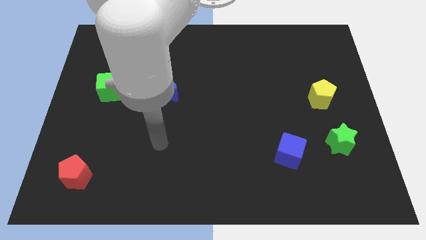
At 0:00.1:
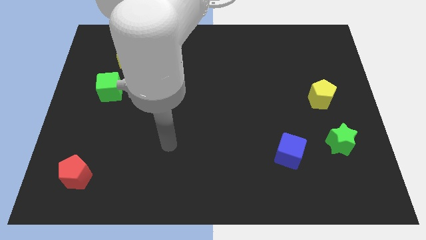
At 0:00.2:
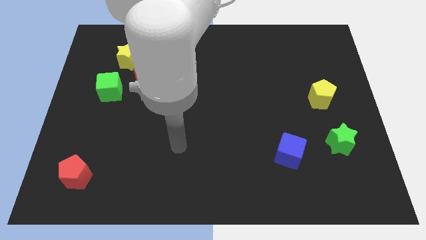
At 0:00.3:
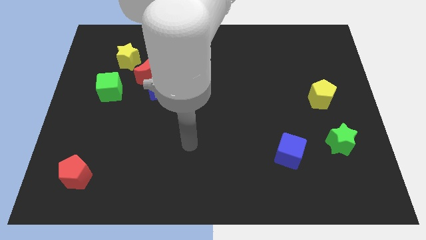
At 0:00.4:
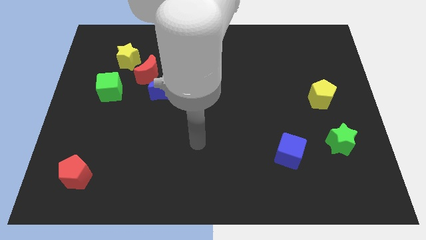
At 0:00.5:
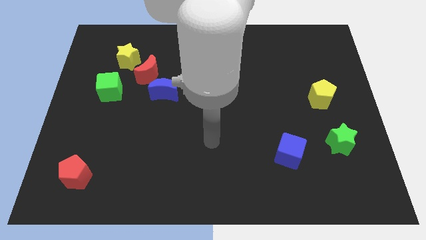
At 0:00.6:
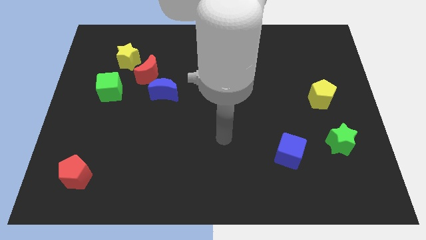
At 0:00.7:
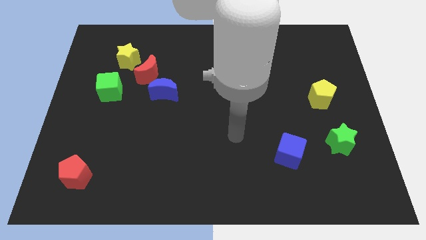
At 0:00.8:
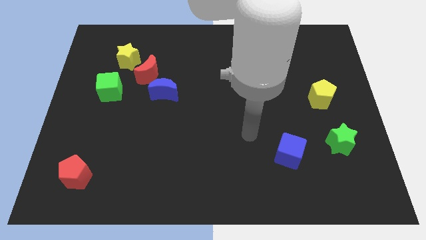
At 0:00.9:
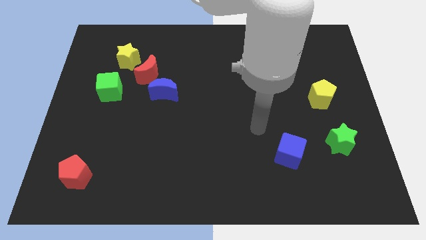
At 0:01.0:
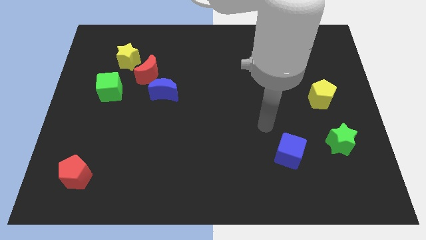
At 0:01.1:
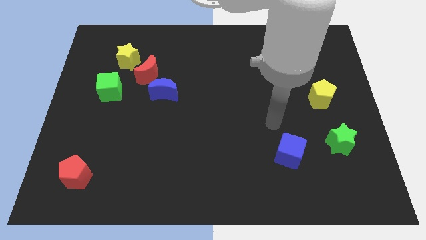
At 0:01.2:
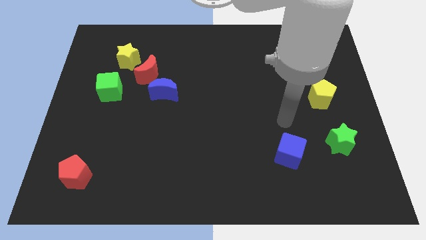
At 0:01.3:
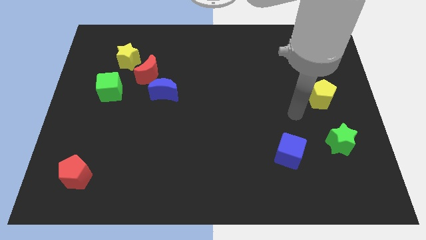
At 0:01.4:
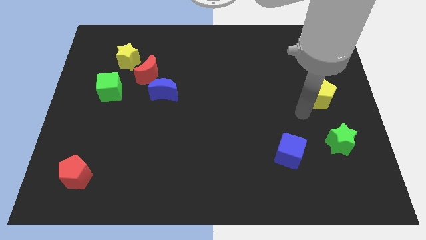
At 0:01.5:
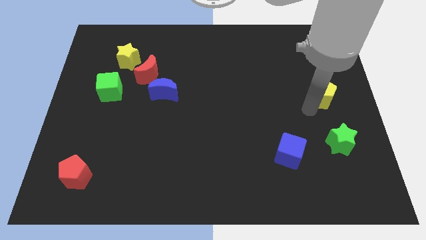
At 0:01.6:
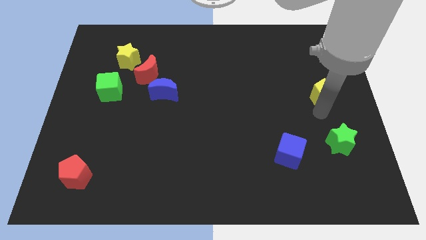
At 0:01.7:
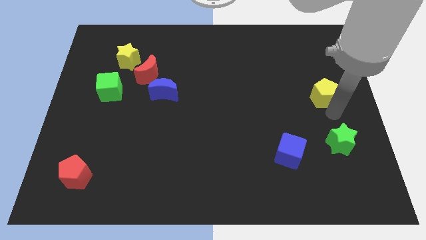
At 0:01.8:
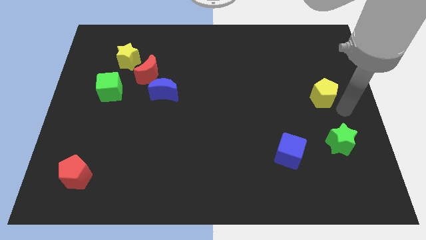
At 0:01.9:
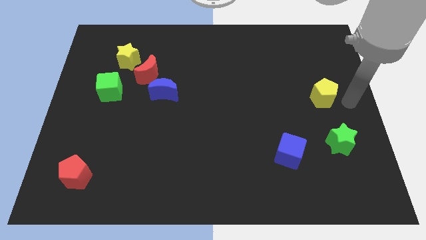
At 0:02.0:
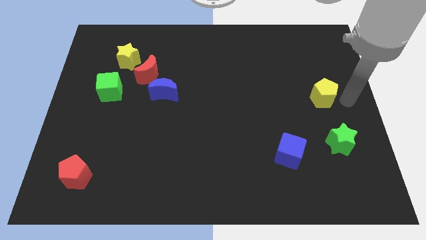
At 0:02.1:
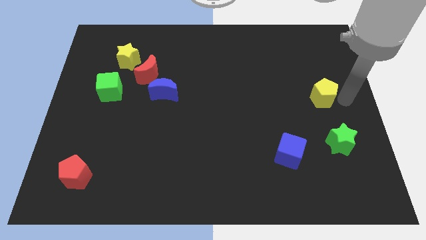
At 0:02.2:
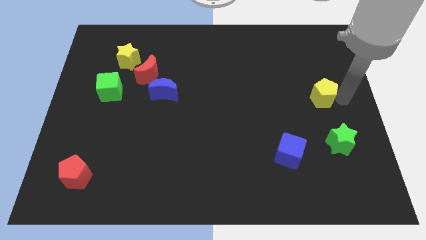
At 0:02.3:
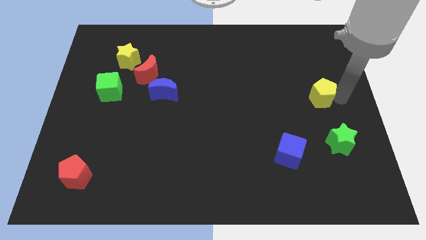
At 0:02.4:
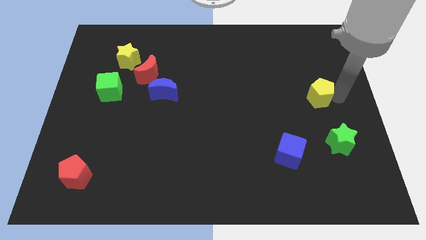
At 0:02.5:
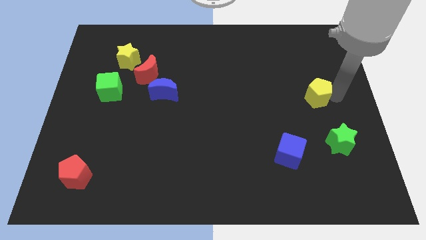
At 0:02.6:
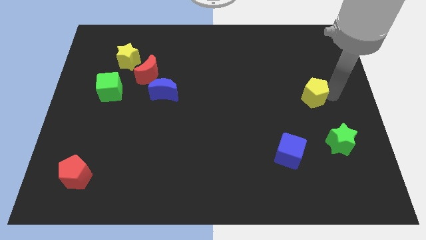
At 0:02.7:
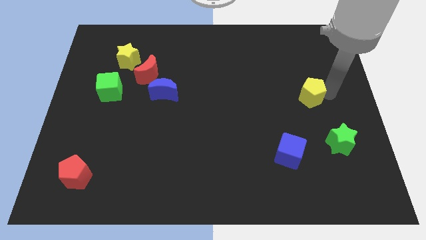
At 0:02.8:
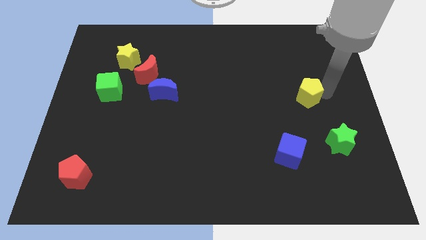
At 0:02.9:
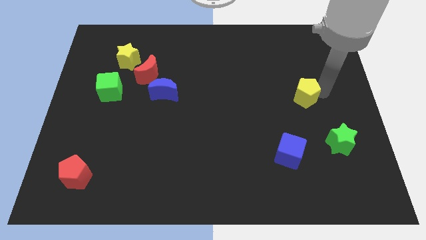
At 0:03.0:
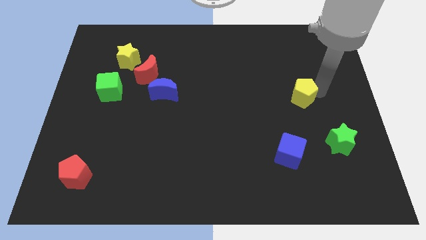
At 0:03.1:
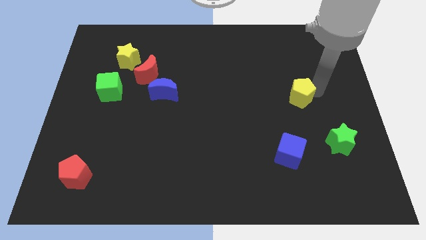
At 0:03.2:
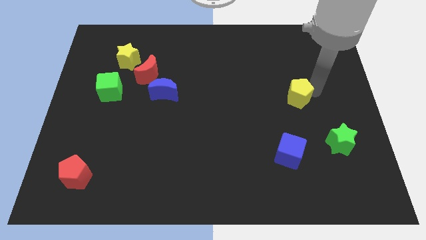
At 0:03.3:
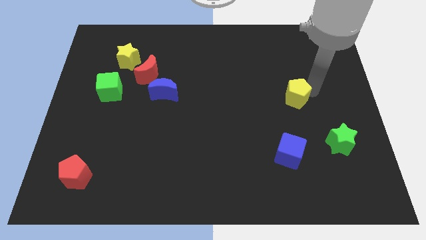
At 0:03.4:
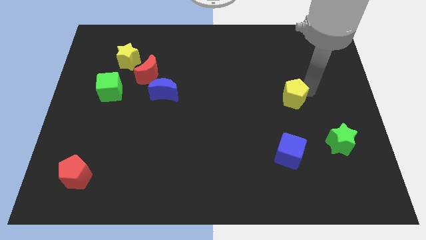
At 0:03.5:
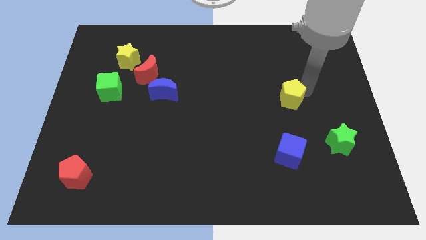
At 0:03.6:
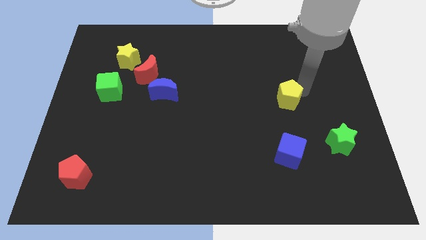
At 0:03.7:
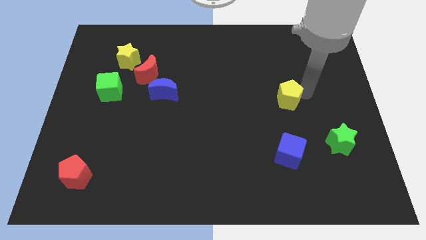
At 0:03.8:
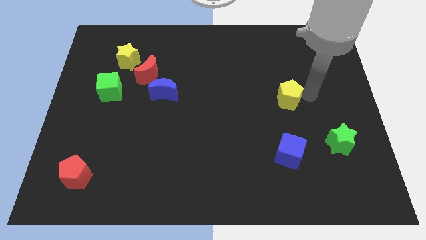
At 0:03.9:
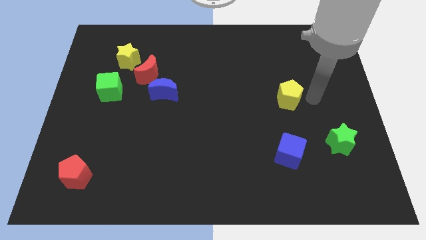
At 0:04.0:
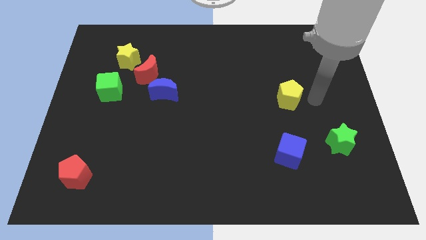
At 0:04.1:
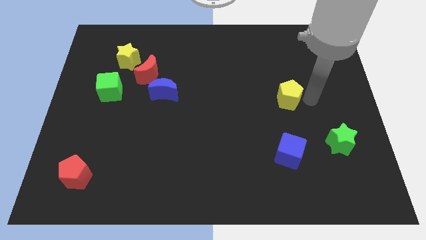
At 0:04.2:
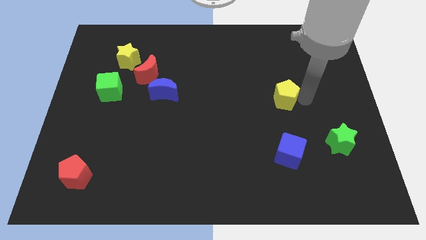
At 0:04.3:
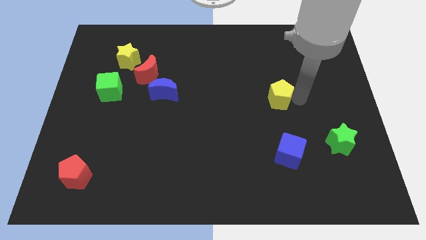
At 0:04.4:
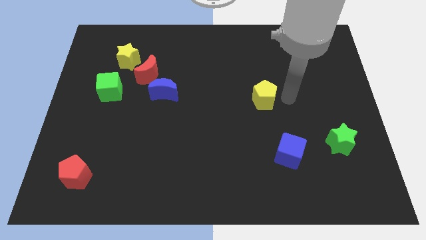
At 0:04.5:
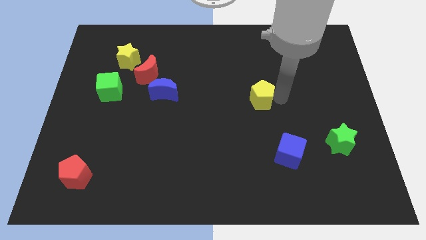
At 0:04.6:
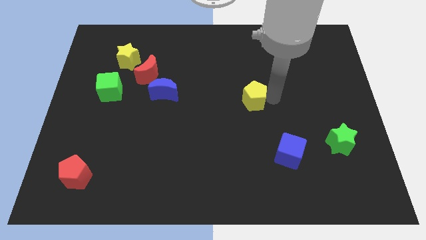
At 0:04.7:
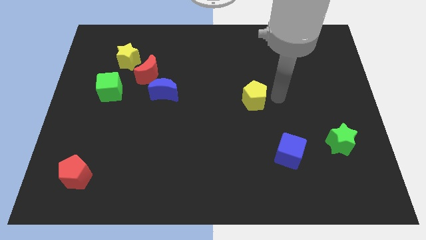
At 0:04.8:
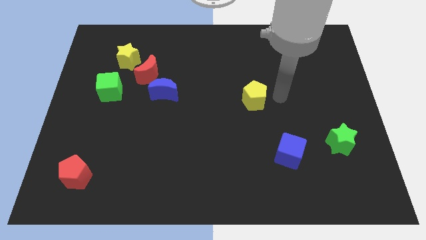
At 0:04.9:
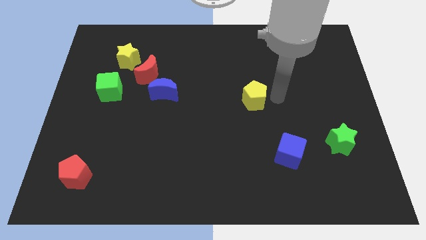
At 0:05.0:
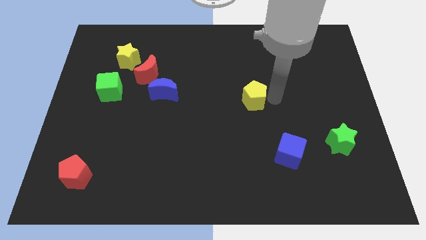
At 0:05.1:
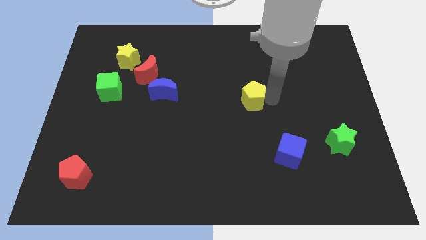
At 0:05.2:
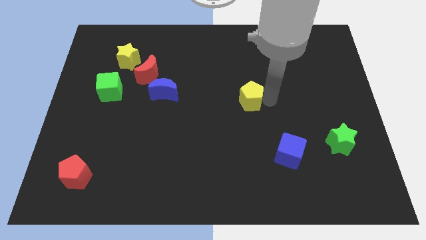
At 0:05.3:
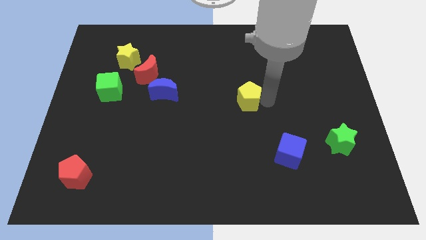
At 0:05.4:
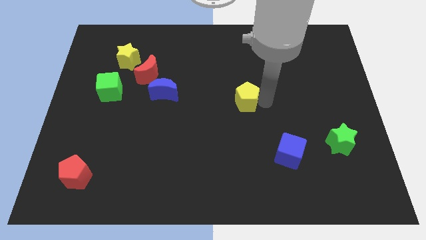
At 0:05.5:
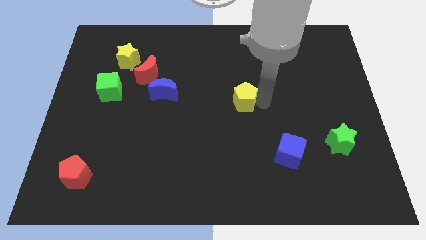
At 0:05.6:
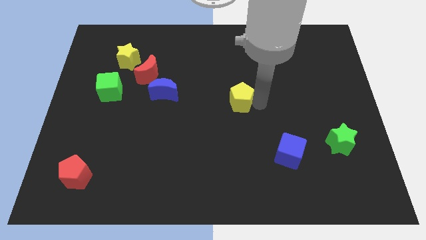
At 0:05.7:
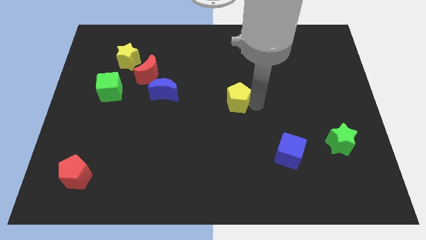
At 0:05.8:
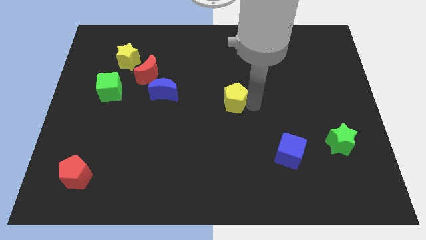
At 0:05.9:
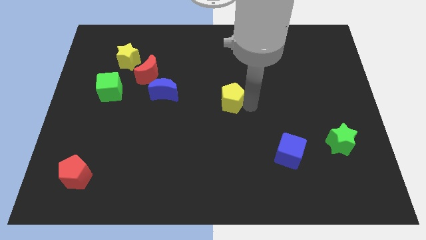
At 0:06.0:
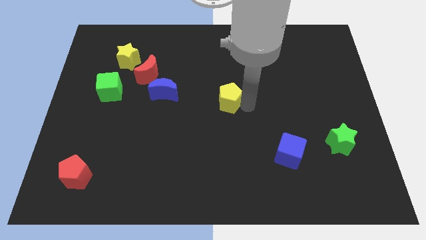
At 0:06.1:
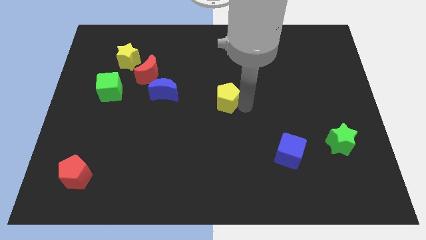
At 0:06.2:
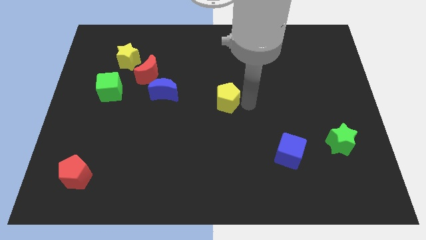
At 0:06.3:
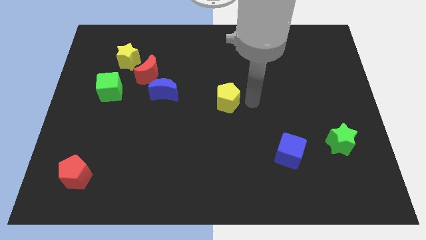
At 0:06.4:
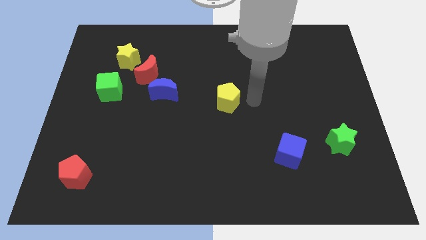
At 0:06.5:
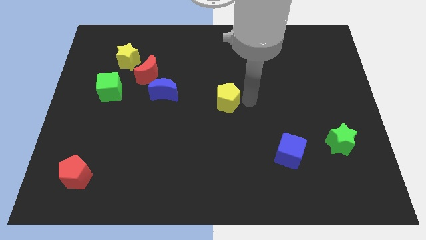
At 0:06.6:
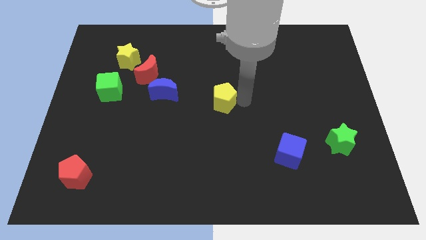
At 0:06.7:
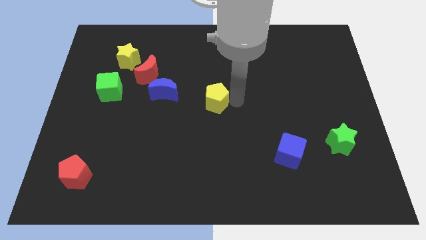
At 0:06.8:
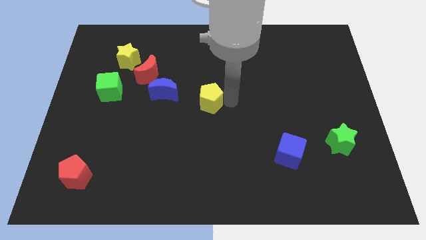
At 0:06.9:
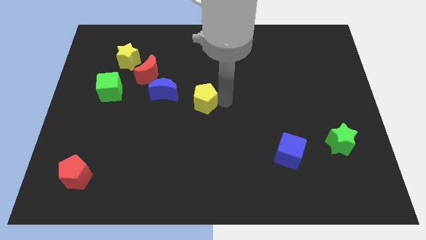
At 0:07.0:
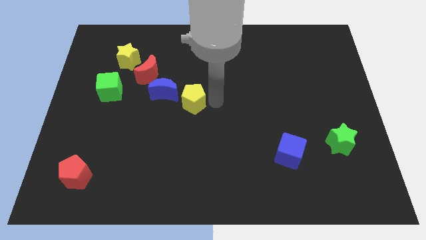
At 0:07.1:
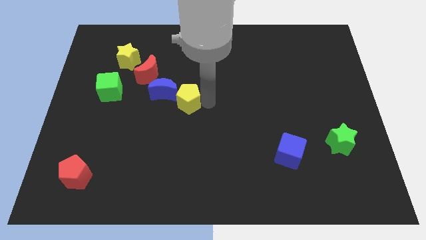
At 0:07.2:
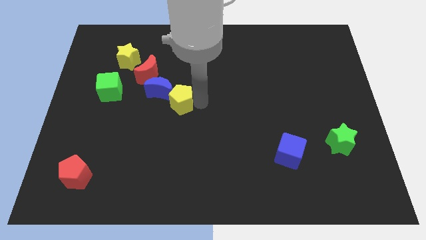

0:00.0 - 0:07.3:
put the yellow pentagon to the blue moon

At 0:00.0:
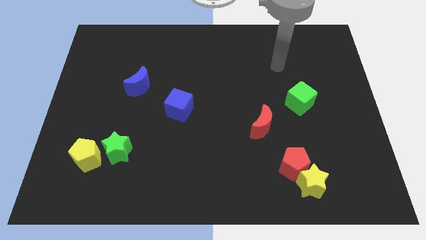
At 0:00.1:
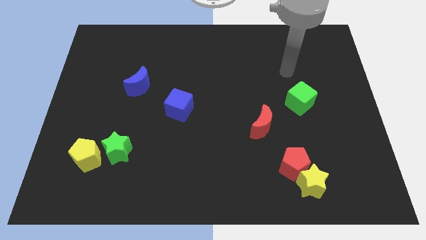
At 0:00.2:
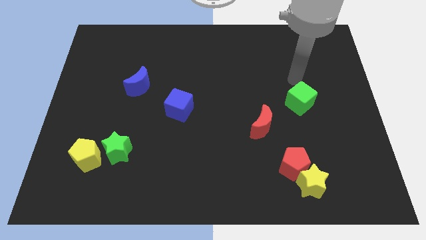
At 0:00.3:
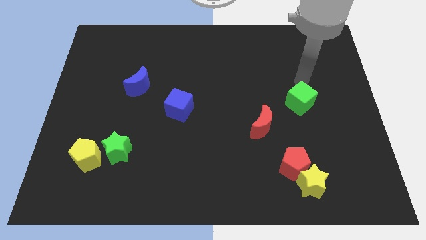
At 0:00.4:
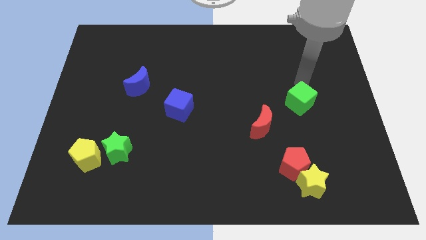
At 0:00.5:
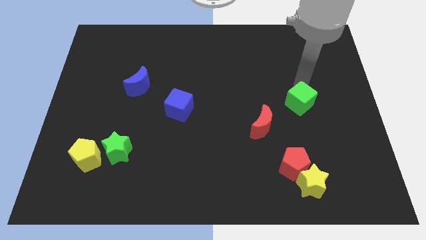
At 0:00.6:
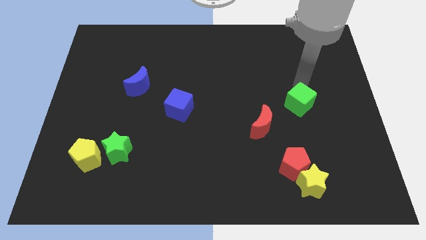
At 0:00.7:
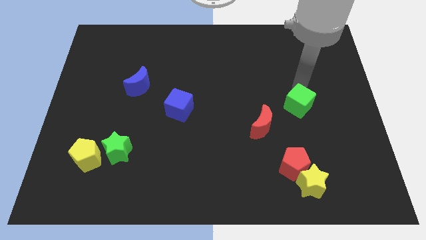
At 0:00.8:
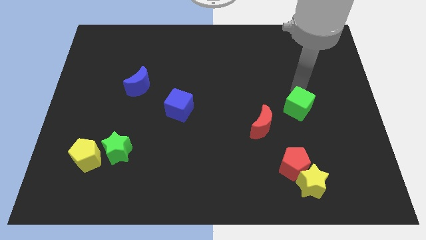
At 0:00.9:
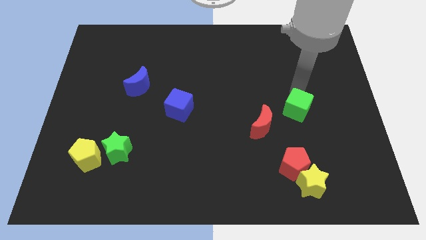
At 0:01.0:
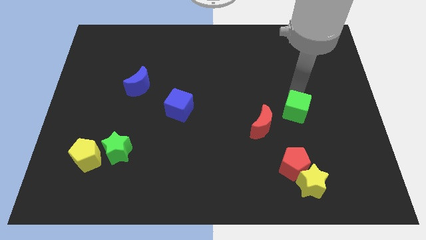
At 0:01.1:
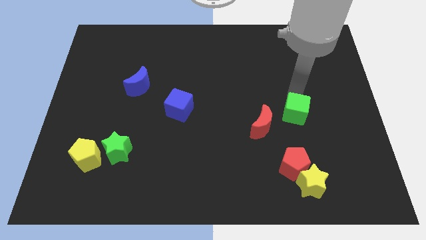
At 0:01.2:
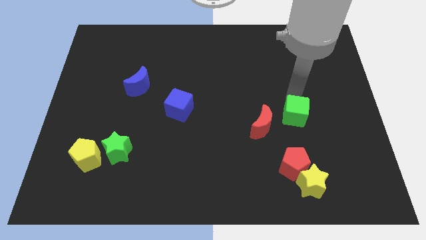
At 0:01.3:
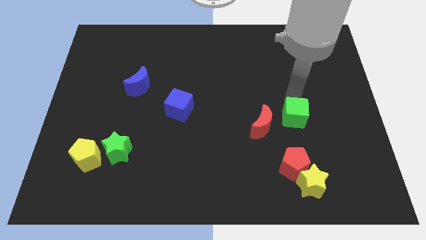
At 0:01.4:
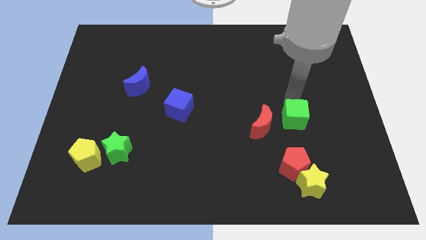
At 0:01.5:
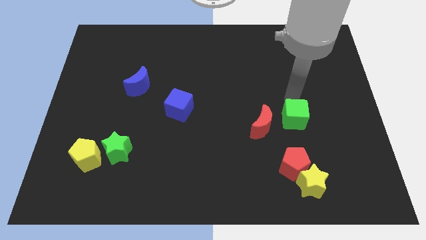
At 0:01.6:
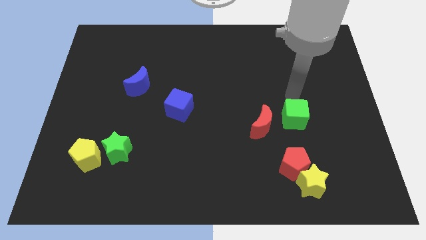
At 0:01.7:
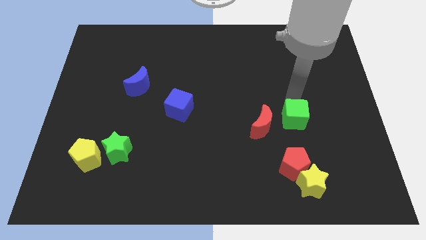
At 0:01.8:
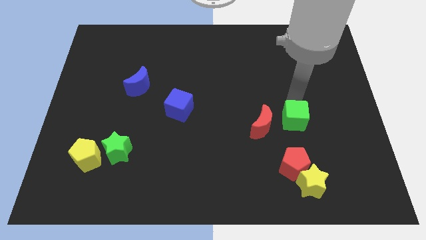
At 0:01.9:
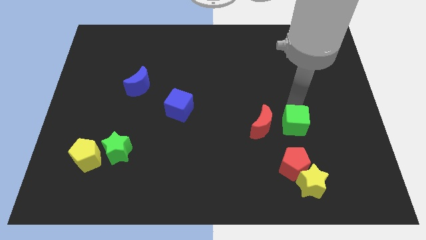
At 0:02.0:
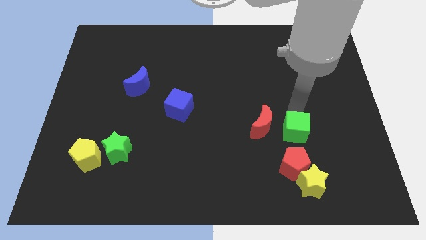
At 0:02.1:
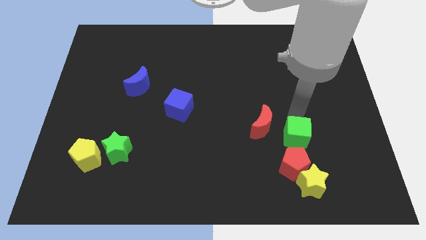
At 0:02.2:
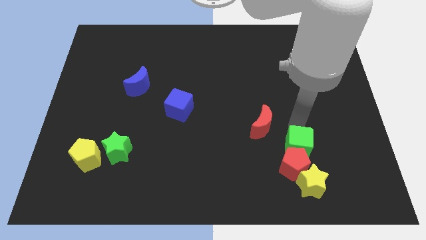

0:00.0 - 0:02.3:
push the green cube next to the red pentagon
